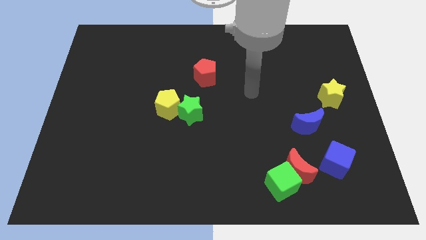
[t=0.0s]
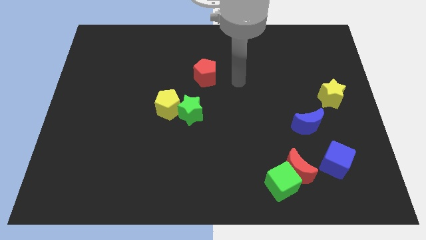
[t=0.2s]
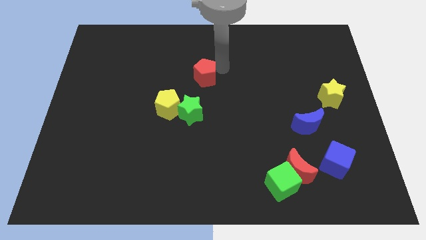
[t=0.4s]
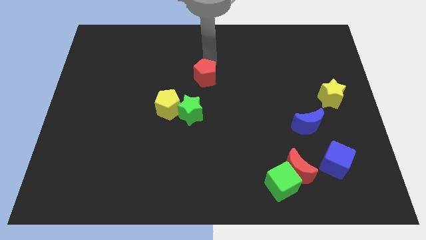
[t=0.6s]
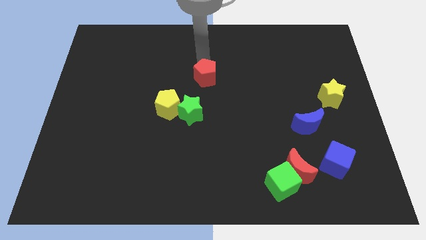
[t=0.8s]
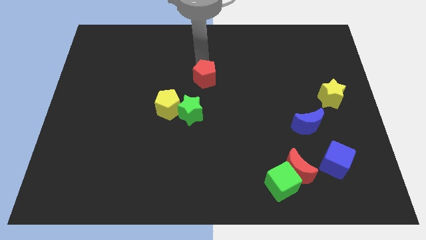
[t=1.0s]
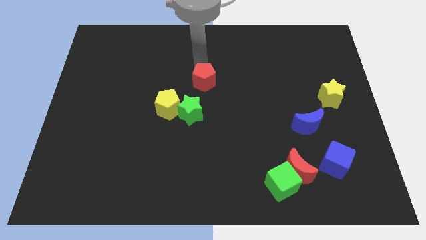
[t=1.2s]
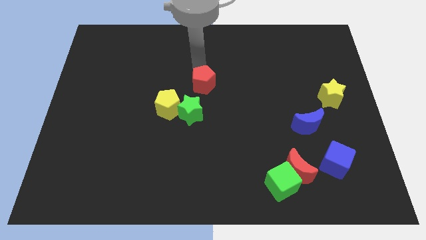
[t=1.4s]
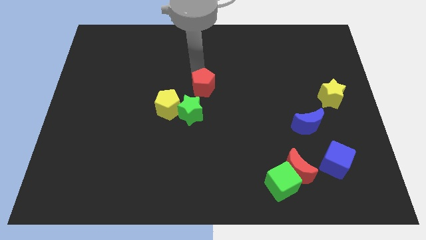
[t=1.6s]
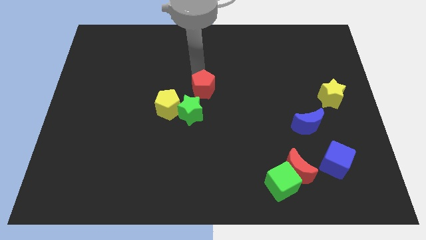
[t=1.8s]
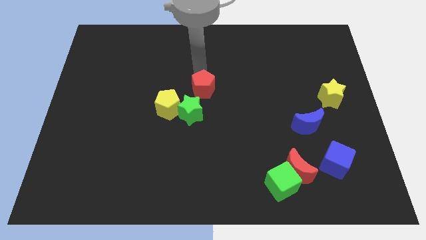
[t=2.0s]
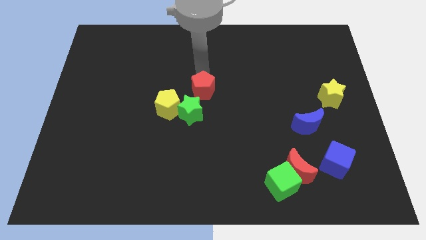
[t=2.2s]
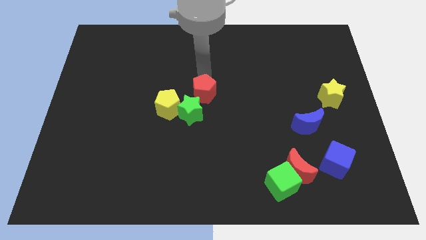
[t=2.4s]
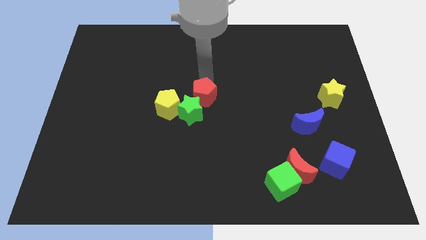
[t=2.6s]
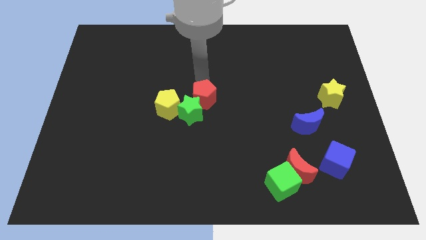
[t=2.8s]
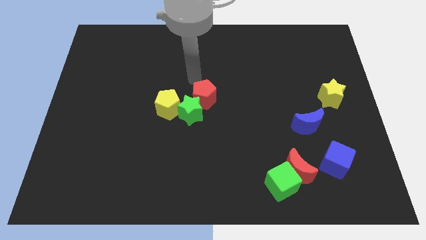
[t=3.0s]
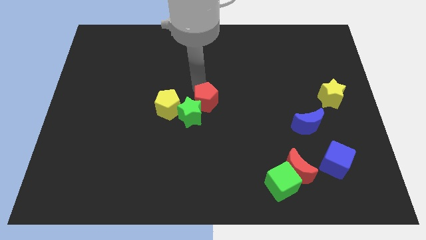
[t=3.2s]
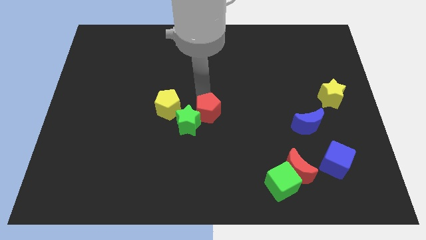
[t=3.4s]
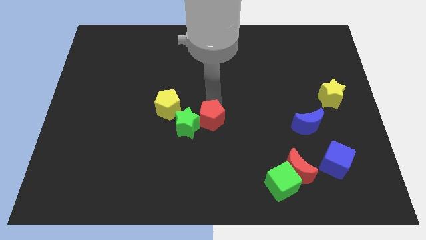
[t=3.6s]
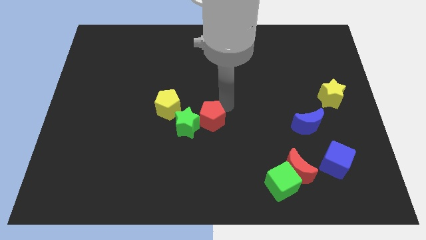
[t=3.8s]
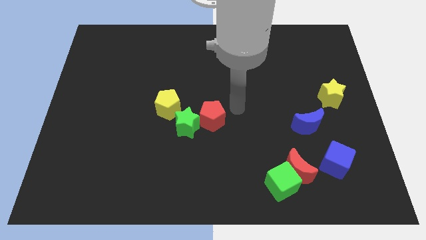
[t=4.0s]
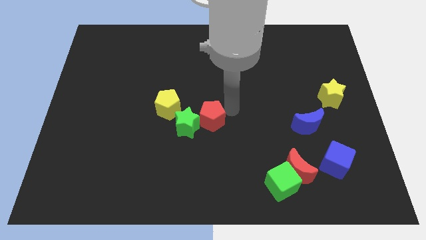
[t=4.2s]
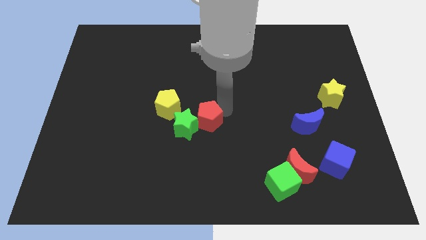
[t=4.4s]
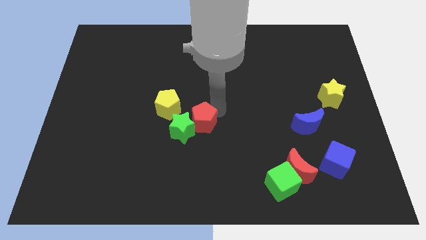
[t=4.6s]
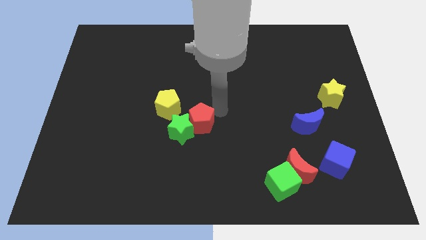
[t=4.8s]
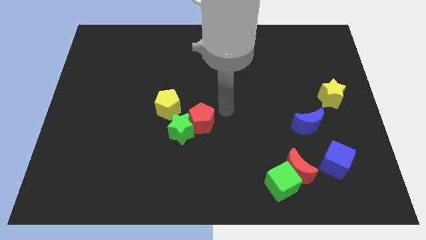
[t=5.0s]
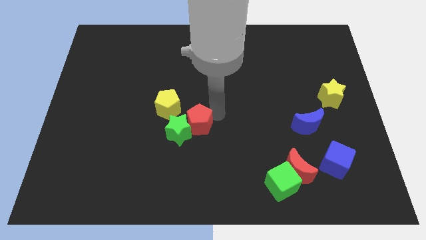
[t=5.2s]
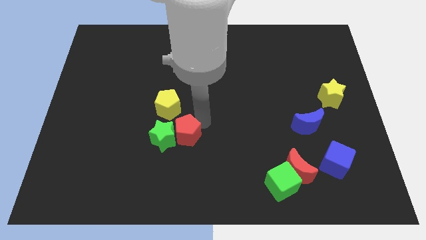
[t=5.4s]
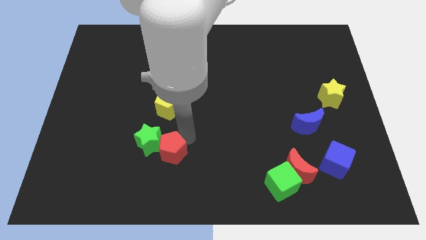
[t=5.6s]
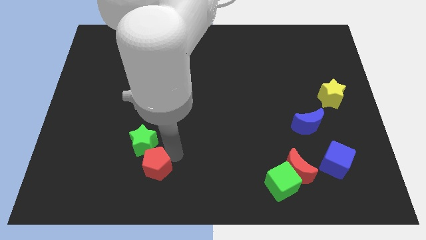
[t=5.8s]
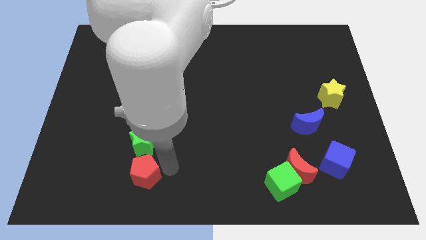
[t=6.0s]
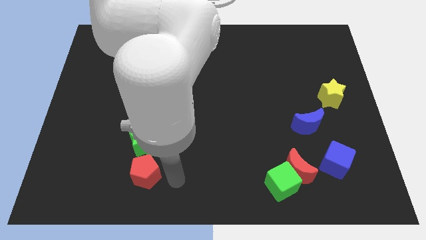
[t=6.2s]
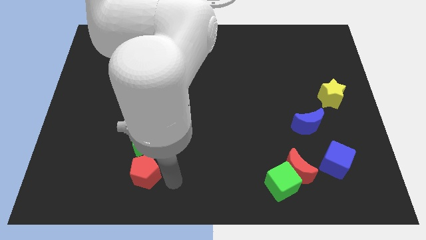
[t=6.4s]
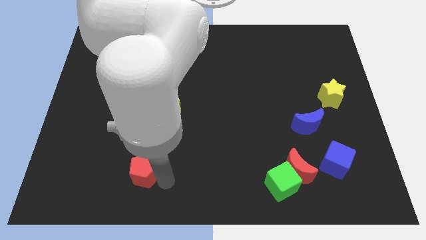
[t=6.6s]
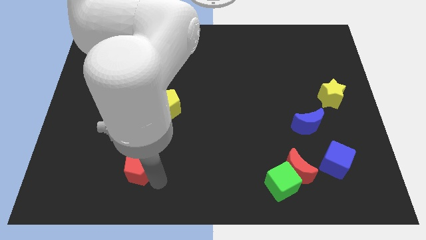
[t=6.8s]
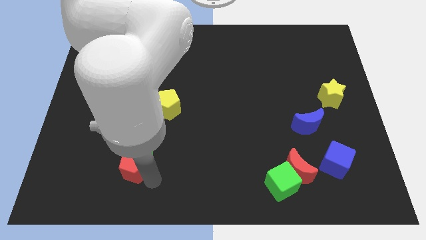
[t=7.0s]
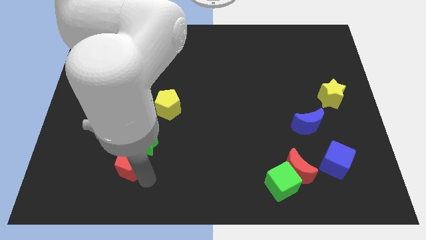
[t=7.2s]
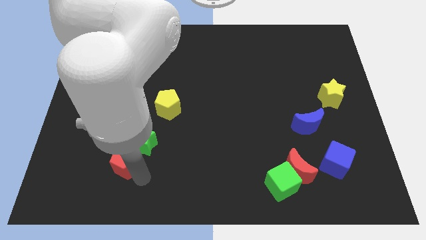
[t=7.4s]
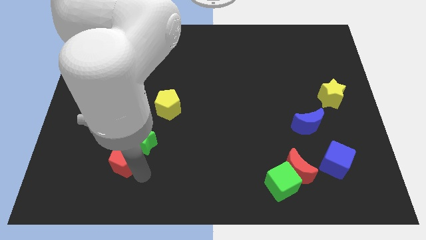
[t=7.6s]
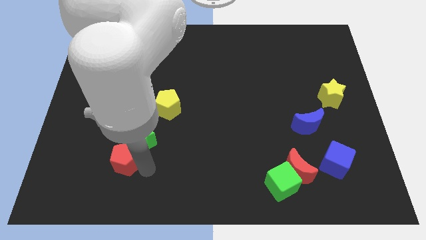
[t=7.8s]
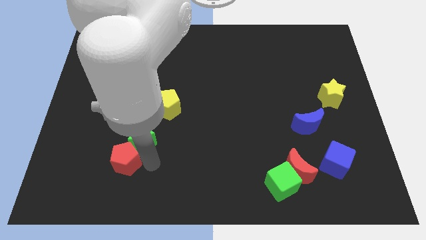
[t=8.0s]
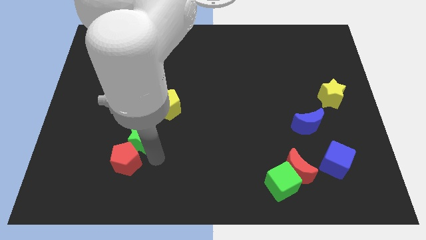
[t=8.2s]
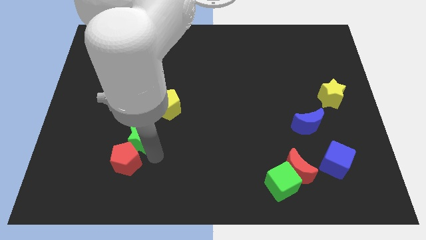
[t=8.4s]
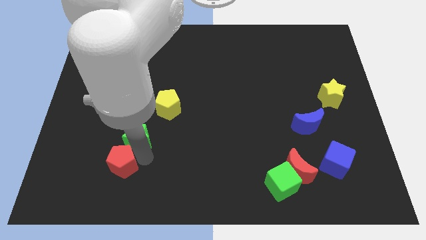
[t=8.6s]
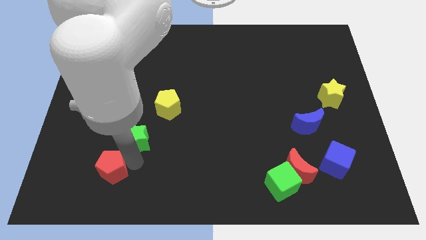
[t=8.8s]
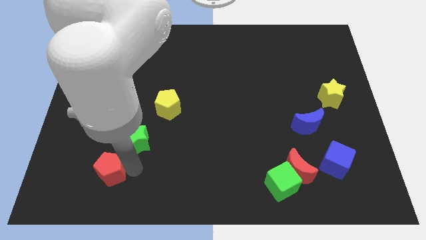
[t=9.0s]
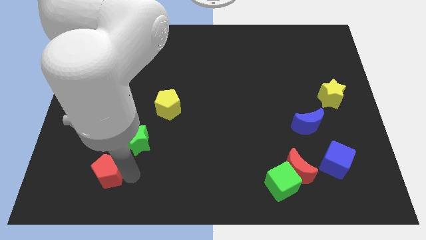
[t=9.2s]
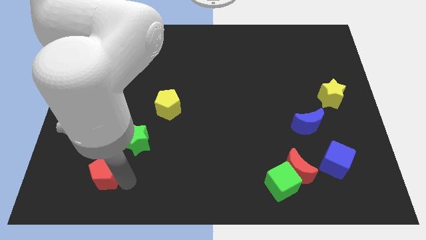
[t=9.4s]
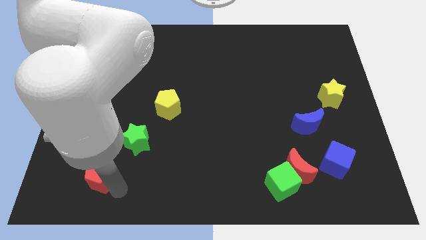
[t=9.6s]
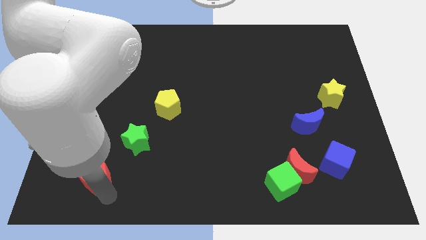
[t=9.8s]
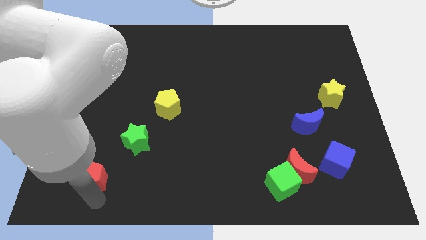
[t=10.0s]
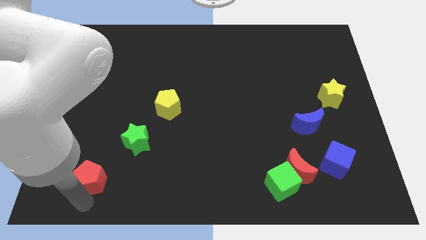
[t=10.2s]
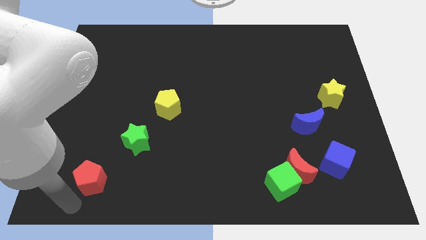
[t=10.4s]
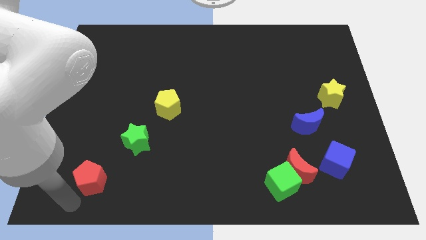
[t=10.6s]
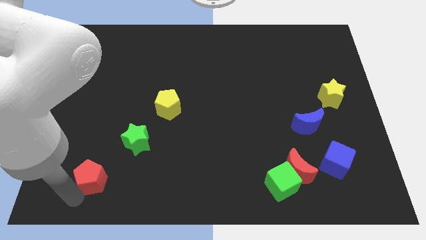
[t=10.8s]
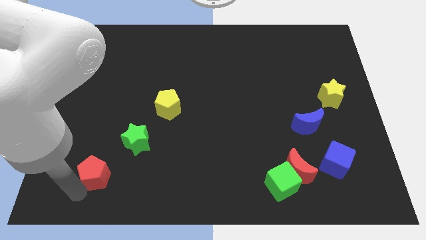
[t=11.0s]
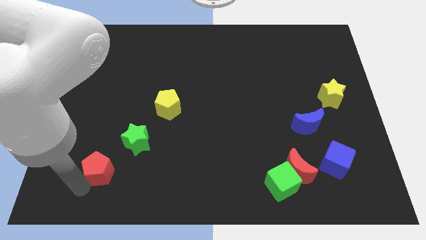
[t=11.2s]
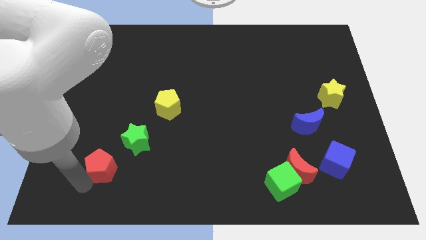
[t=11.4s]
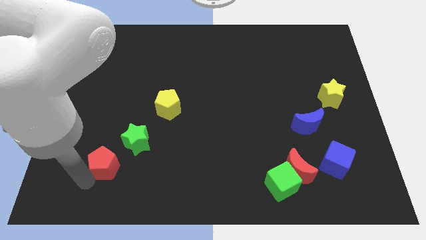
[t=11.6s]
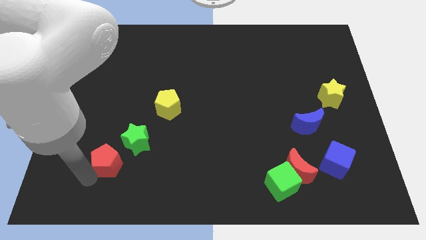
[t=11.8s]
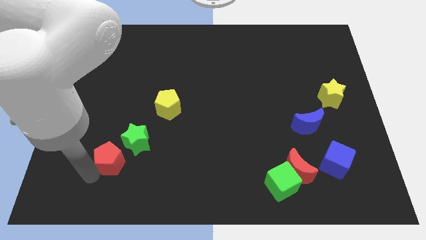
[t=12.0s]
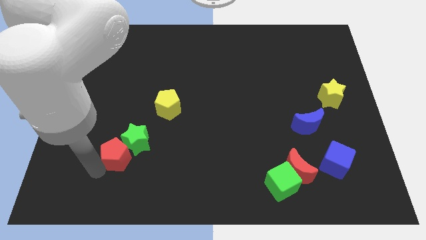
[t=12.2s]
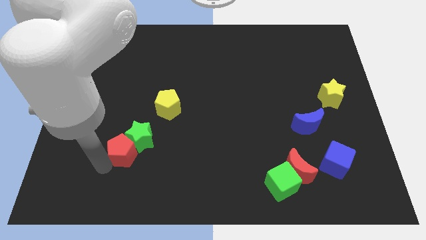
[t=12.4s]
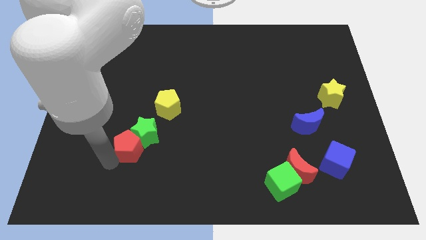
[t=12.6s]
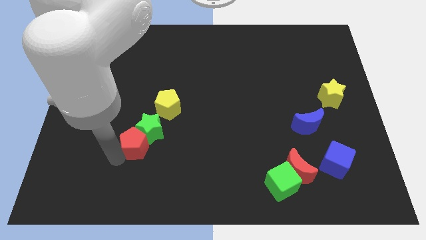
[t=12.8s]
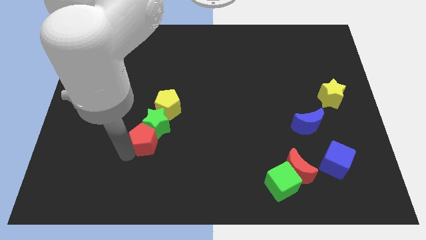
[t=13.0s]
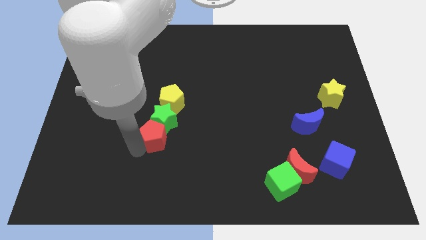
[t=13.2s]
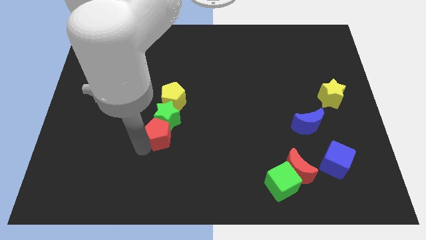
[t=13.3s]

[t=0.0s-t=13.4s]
slide the red pentagon to the bottom left of the green star
